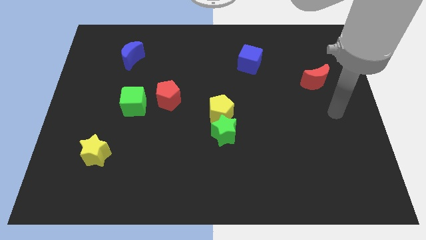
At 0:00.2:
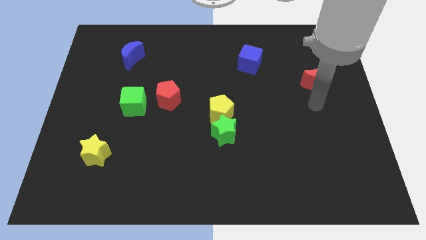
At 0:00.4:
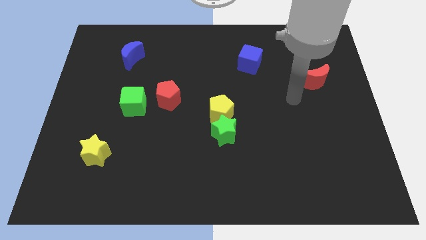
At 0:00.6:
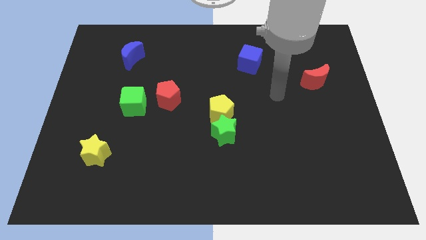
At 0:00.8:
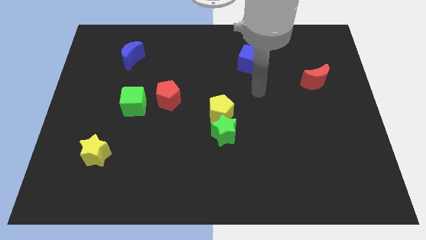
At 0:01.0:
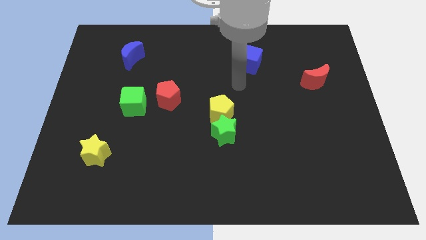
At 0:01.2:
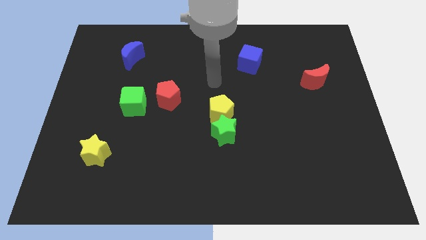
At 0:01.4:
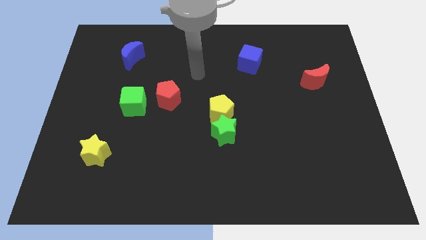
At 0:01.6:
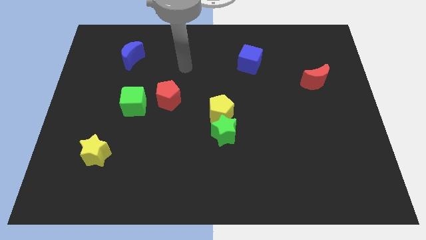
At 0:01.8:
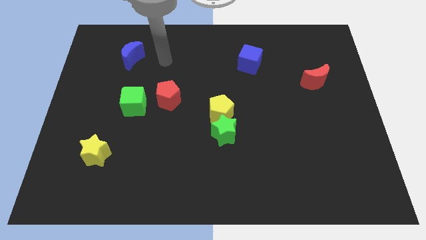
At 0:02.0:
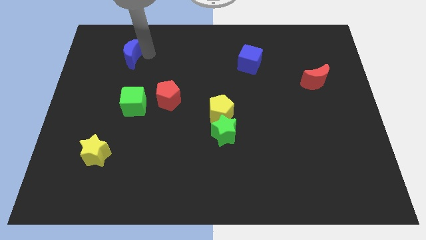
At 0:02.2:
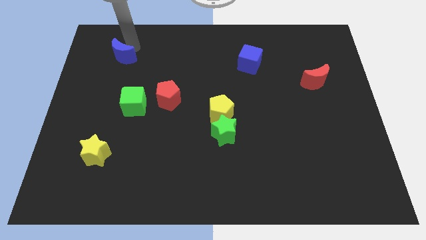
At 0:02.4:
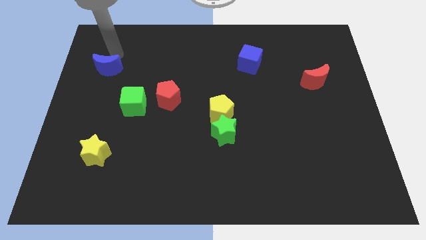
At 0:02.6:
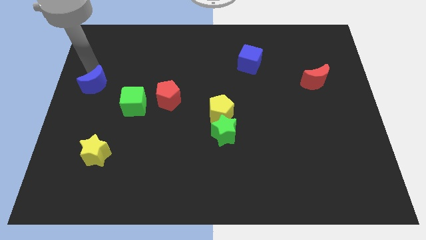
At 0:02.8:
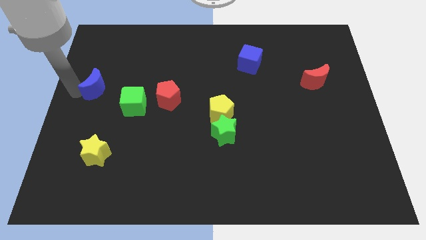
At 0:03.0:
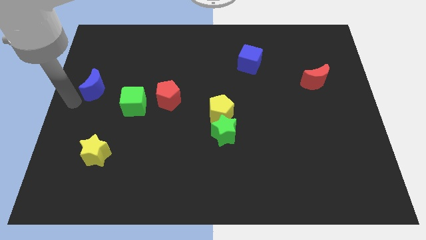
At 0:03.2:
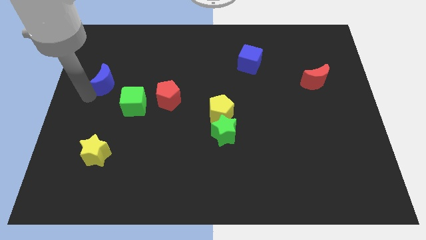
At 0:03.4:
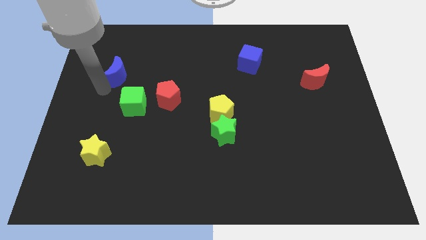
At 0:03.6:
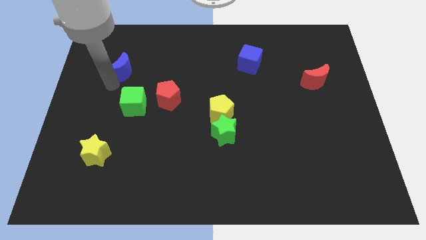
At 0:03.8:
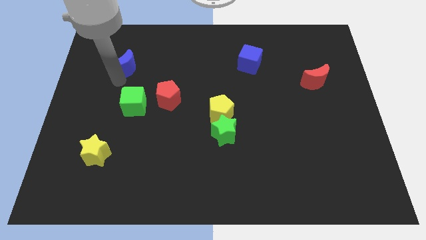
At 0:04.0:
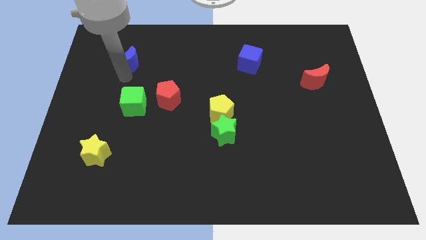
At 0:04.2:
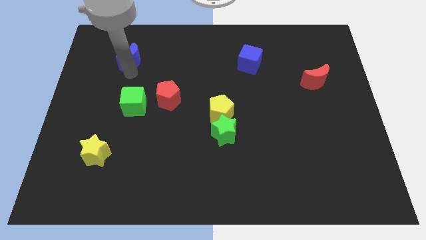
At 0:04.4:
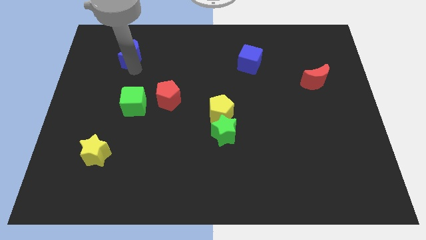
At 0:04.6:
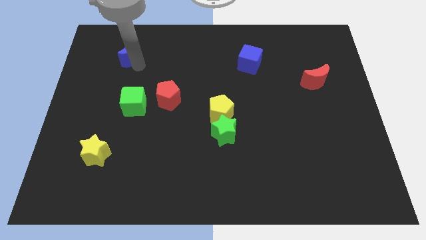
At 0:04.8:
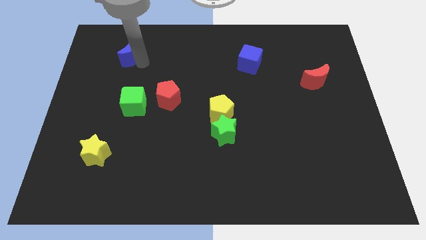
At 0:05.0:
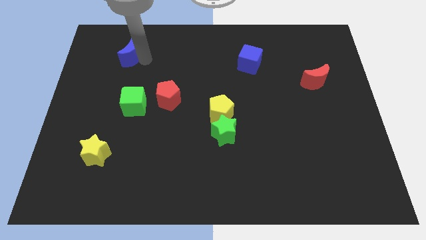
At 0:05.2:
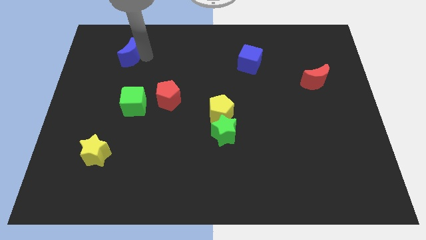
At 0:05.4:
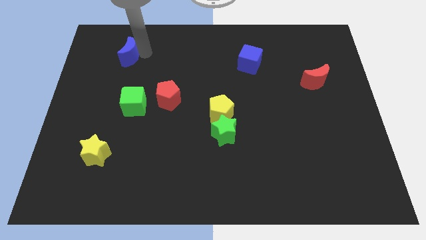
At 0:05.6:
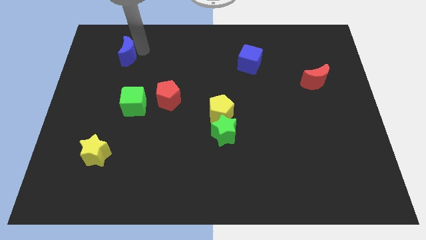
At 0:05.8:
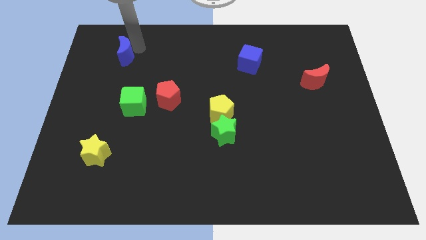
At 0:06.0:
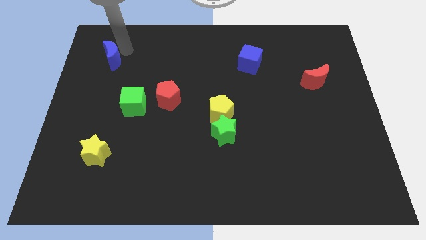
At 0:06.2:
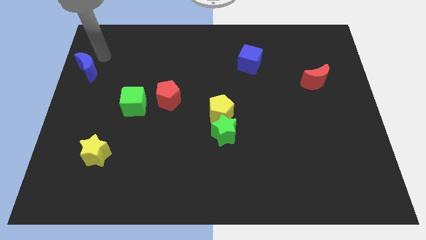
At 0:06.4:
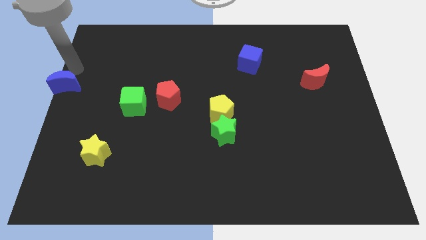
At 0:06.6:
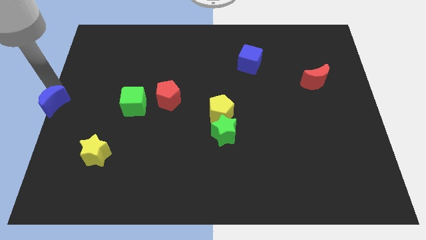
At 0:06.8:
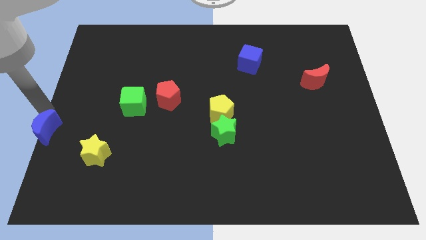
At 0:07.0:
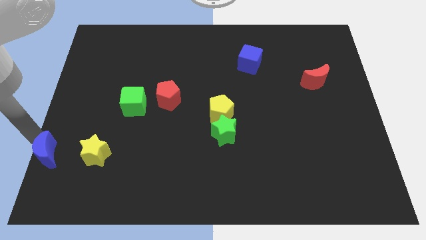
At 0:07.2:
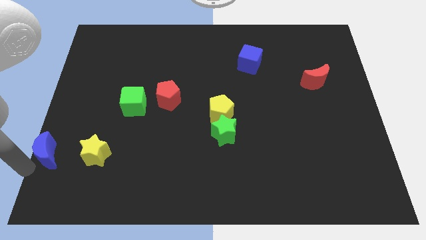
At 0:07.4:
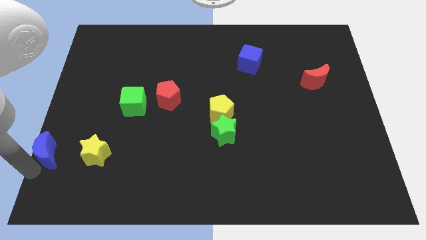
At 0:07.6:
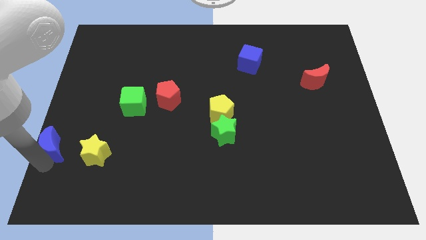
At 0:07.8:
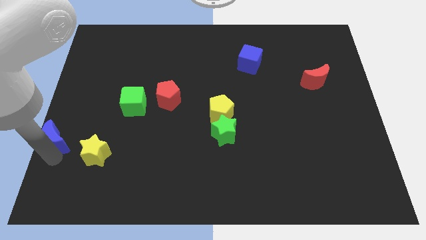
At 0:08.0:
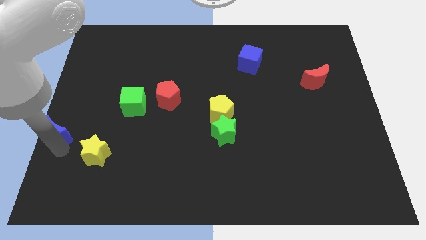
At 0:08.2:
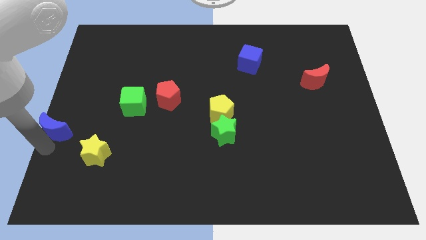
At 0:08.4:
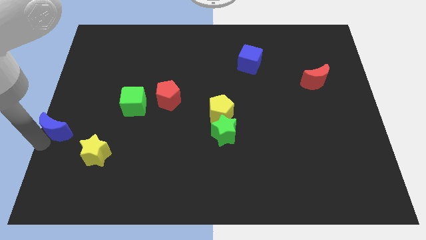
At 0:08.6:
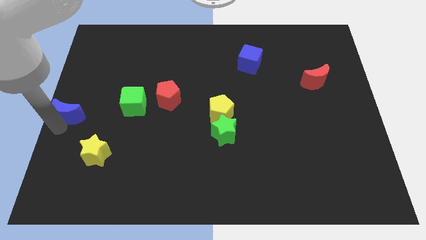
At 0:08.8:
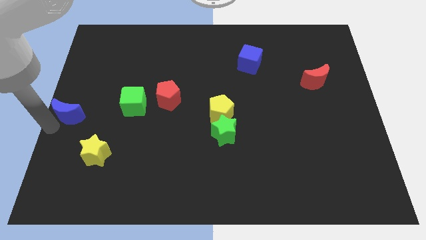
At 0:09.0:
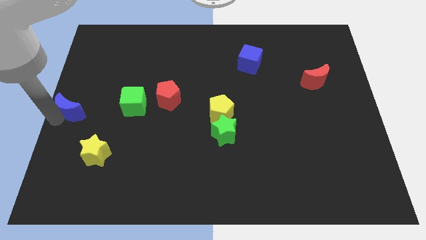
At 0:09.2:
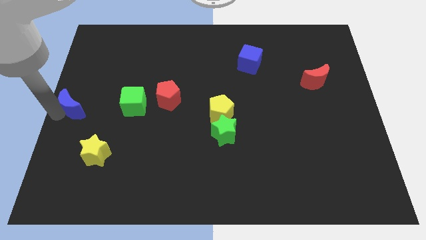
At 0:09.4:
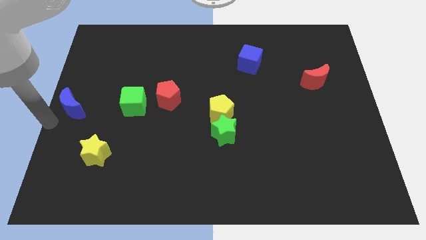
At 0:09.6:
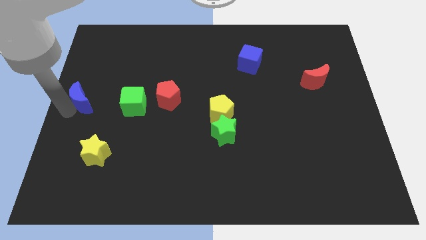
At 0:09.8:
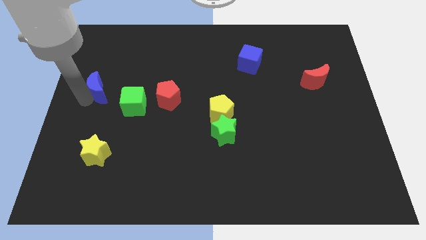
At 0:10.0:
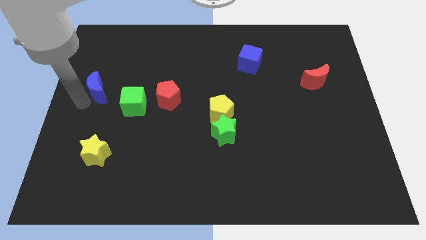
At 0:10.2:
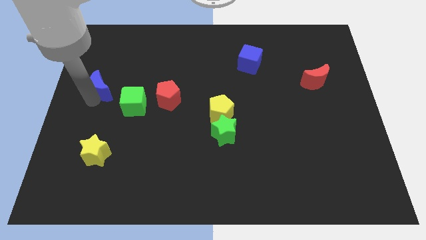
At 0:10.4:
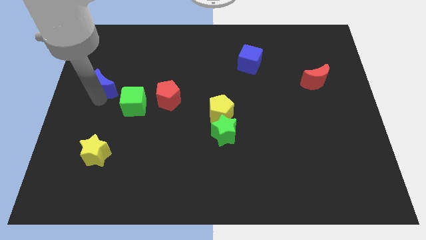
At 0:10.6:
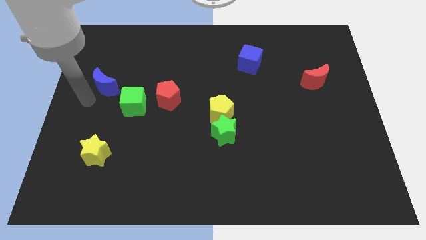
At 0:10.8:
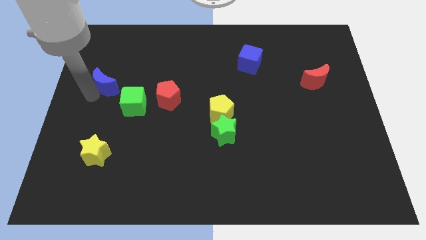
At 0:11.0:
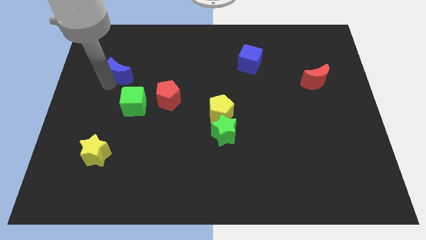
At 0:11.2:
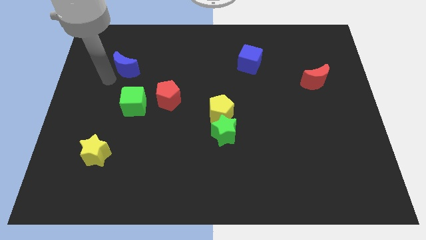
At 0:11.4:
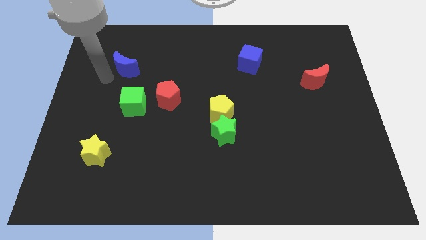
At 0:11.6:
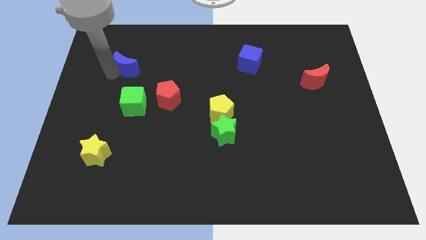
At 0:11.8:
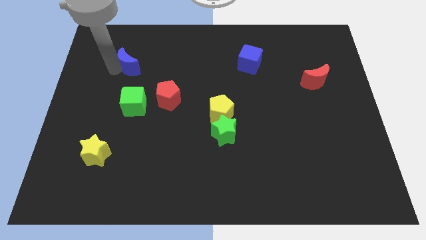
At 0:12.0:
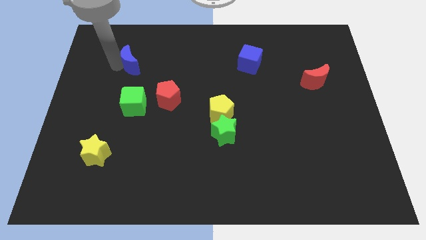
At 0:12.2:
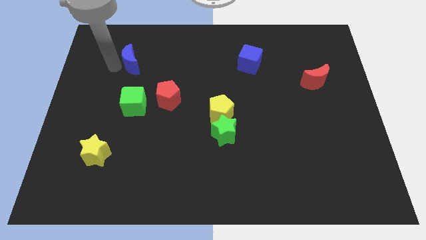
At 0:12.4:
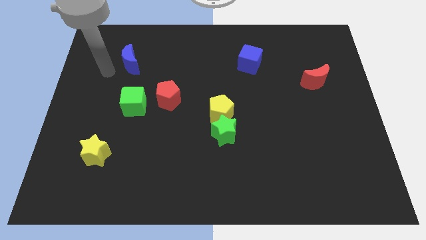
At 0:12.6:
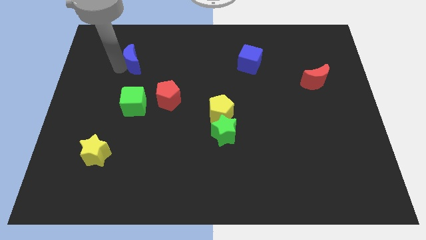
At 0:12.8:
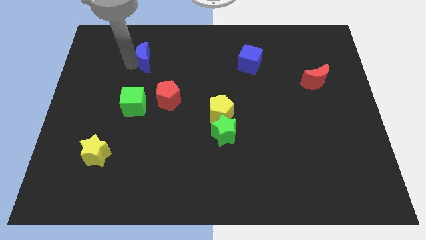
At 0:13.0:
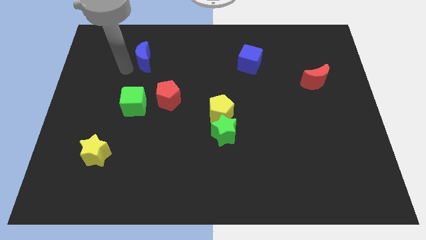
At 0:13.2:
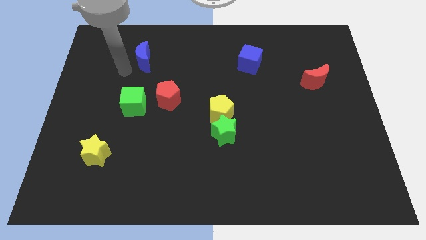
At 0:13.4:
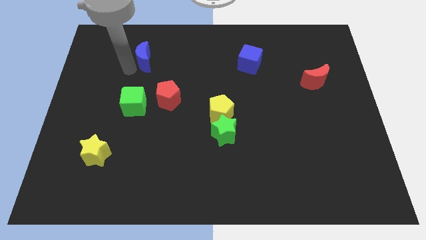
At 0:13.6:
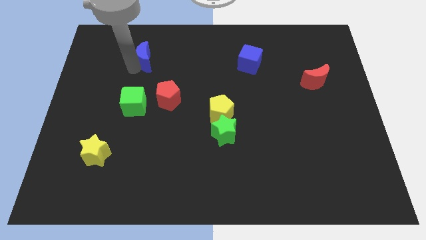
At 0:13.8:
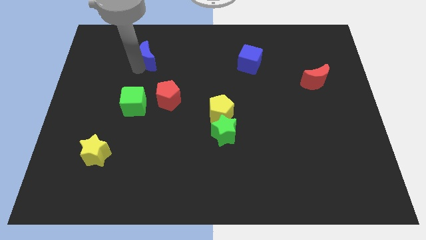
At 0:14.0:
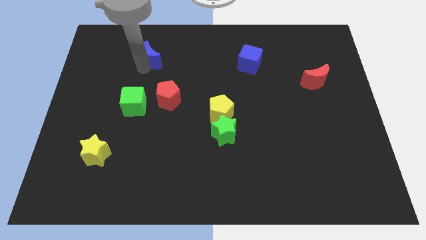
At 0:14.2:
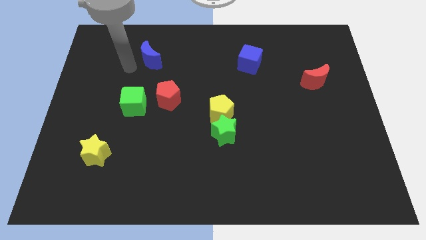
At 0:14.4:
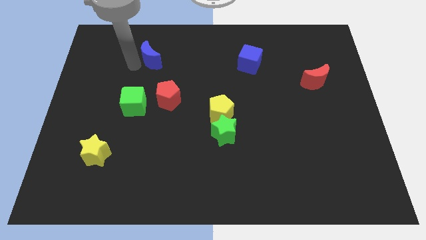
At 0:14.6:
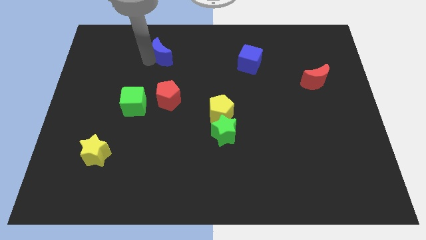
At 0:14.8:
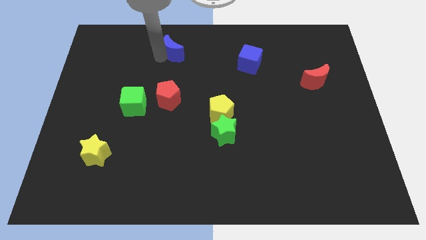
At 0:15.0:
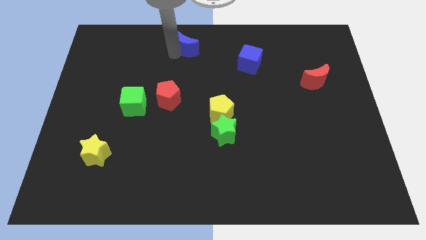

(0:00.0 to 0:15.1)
put the blue moon to the top
